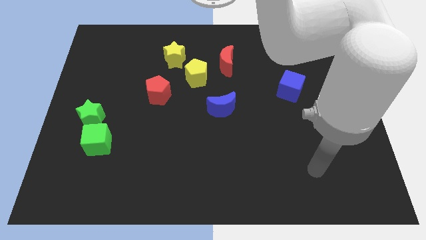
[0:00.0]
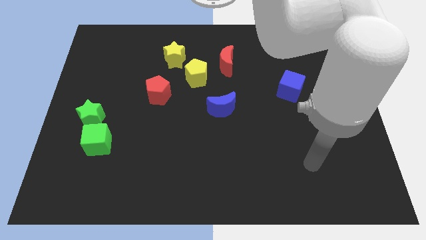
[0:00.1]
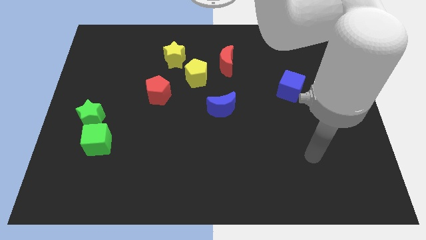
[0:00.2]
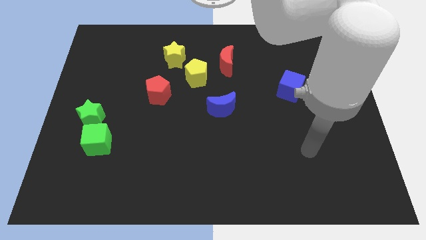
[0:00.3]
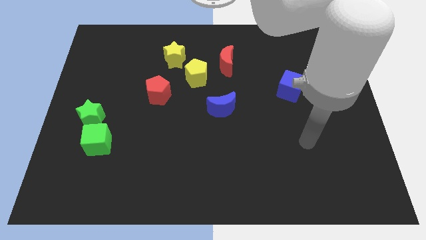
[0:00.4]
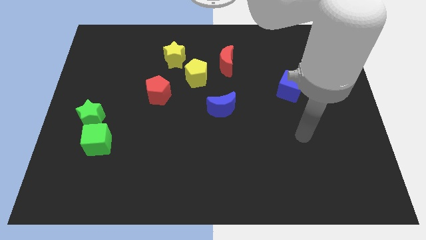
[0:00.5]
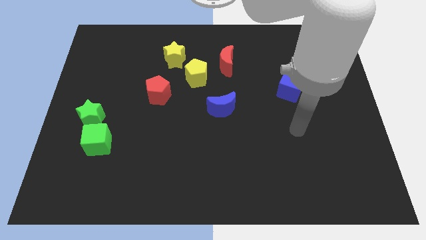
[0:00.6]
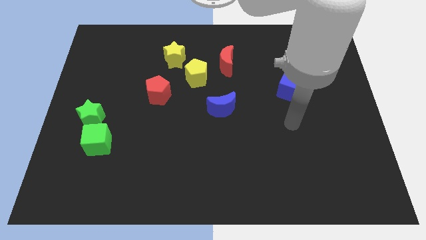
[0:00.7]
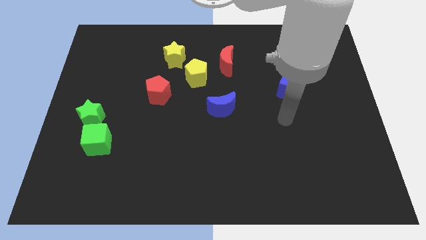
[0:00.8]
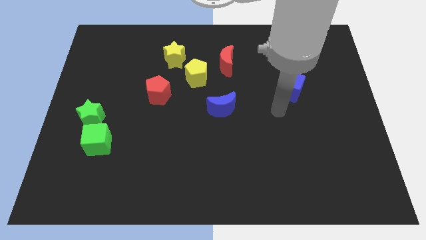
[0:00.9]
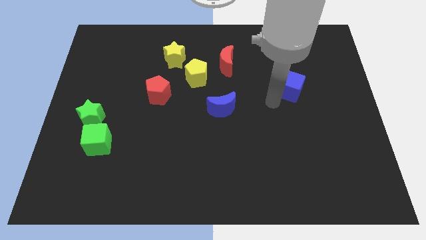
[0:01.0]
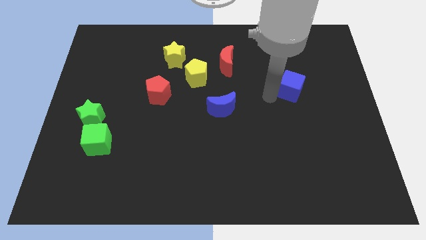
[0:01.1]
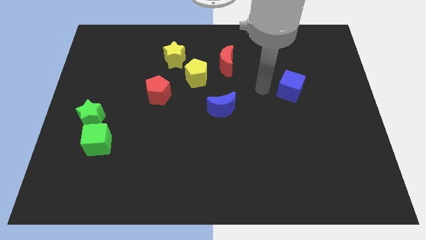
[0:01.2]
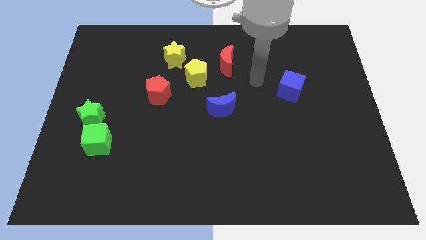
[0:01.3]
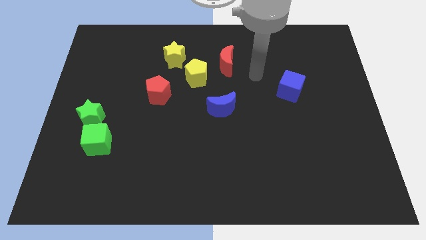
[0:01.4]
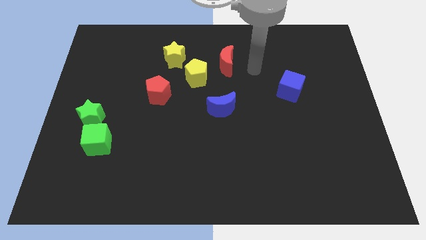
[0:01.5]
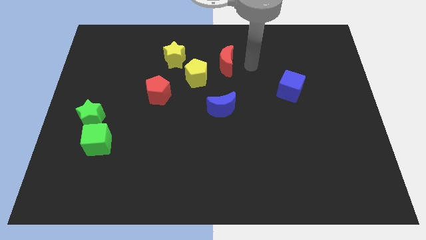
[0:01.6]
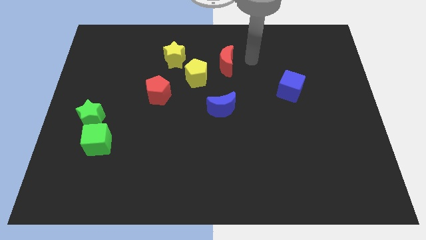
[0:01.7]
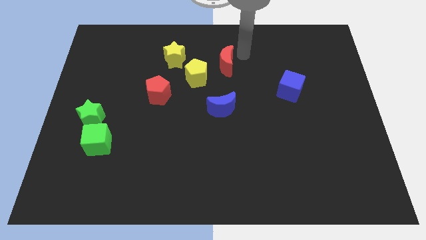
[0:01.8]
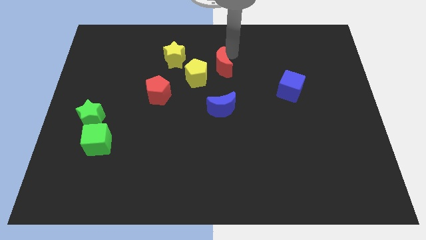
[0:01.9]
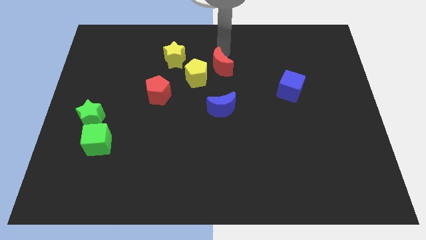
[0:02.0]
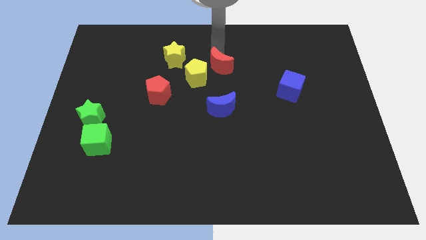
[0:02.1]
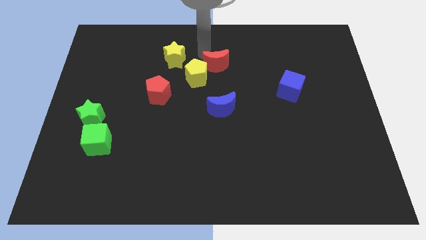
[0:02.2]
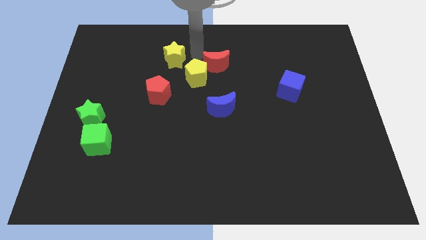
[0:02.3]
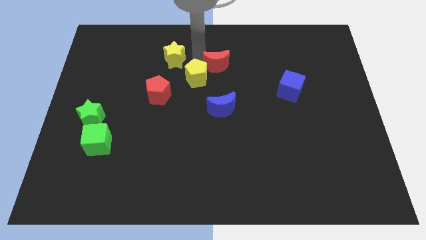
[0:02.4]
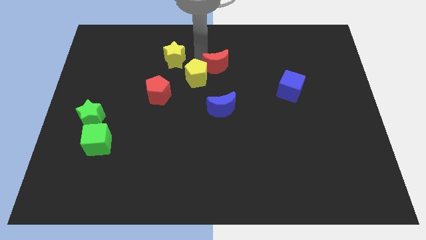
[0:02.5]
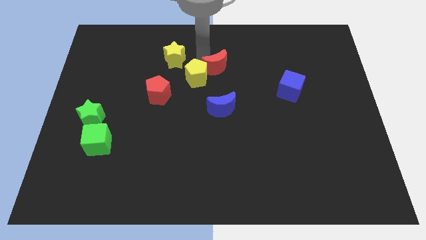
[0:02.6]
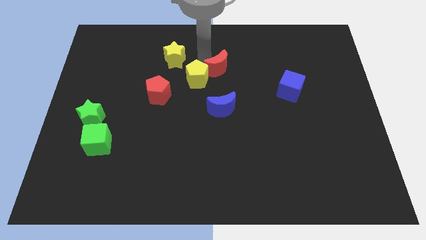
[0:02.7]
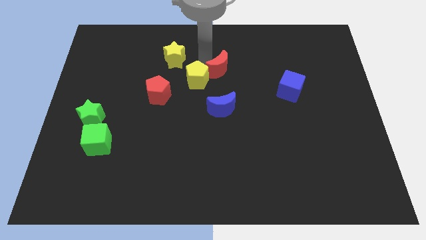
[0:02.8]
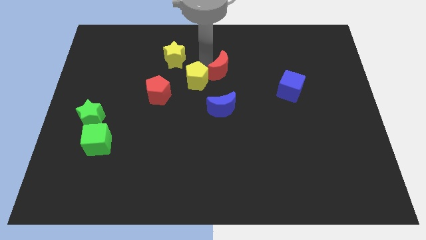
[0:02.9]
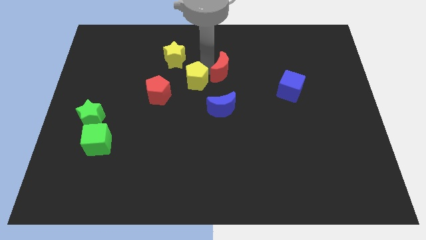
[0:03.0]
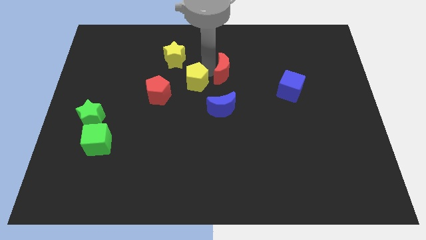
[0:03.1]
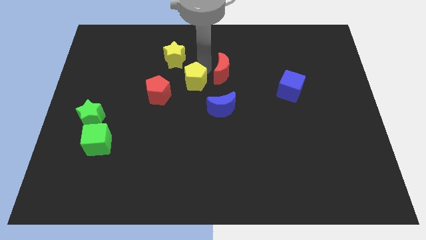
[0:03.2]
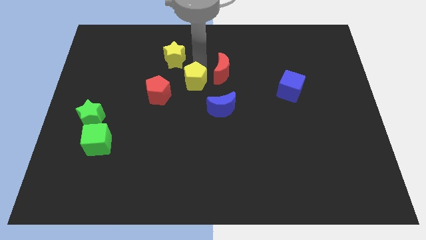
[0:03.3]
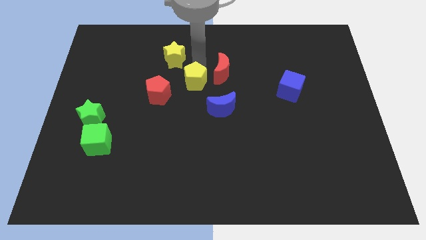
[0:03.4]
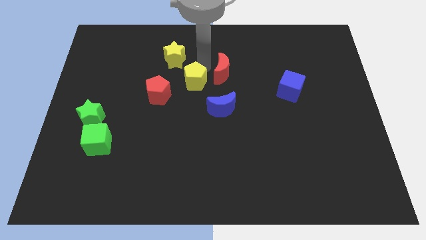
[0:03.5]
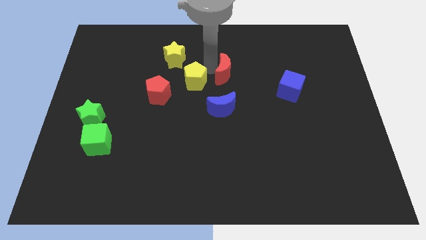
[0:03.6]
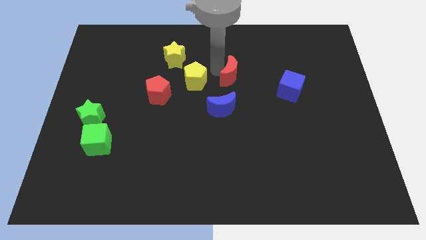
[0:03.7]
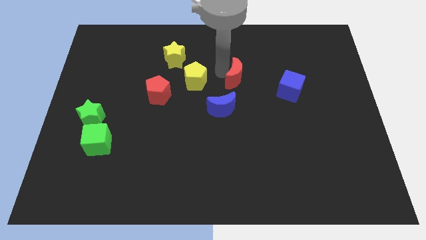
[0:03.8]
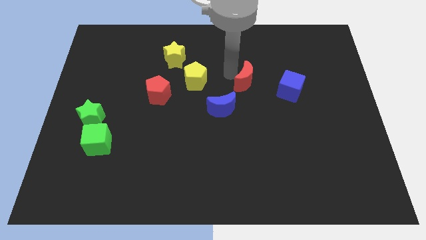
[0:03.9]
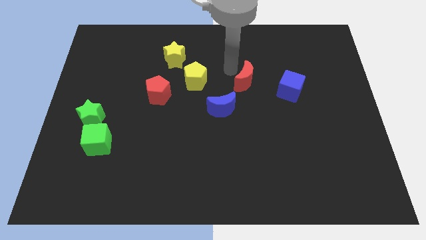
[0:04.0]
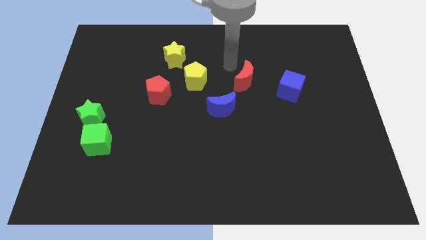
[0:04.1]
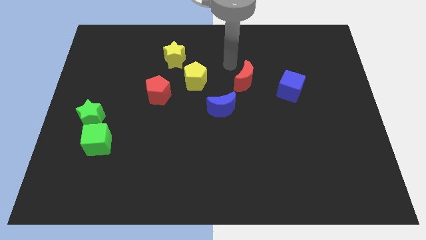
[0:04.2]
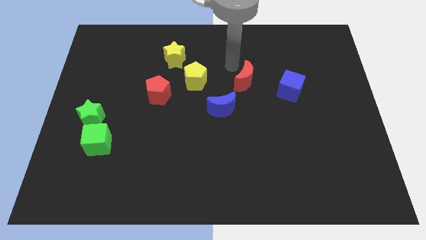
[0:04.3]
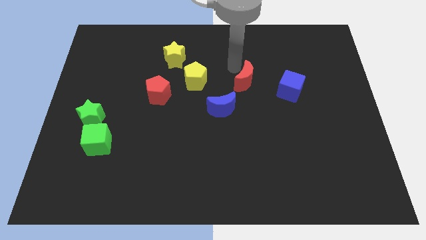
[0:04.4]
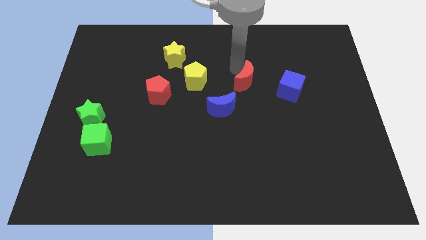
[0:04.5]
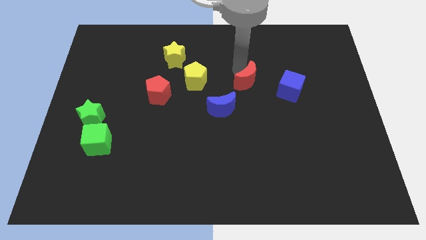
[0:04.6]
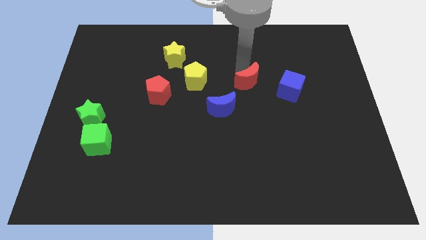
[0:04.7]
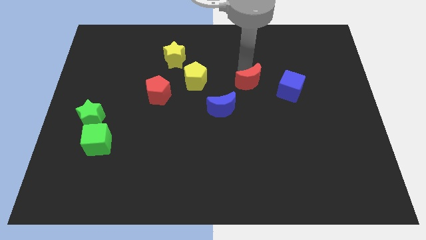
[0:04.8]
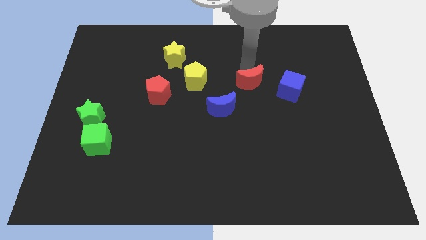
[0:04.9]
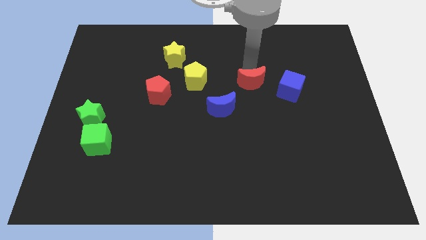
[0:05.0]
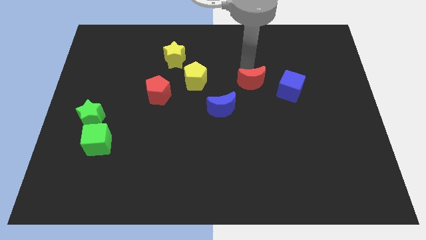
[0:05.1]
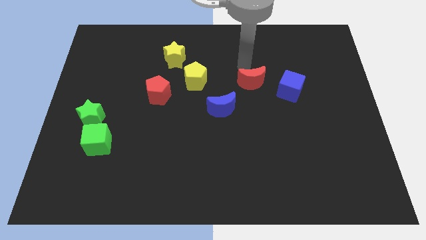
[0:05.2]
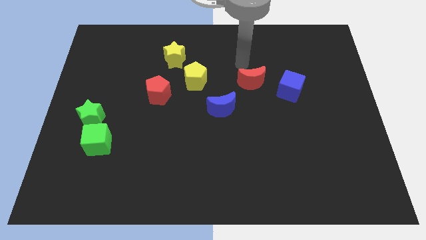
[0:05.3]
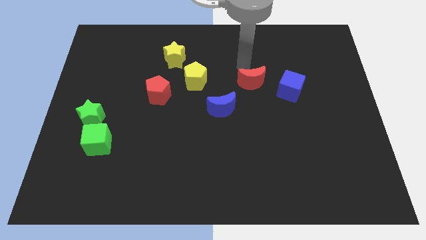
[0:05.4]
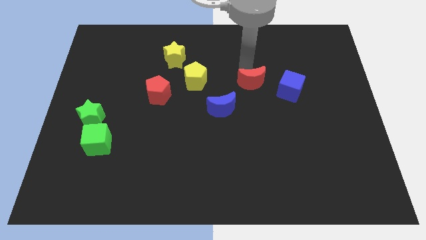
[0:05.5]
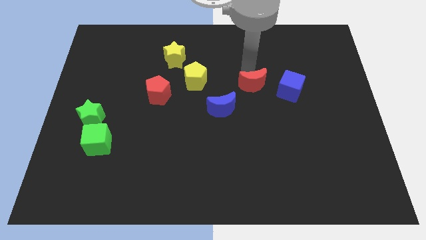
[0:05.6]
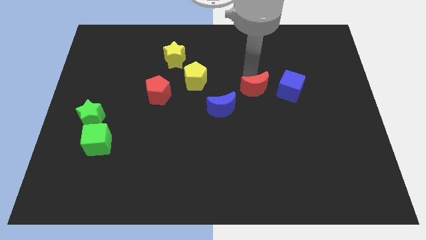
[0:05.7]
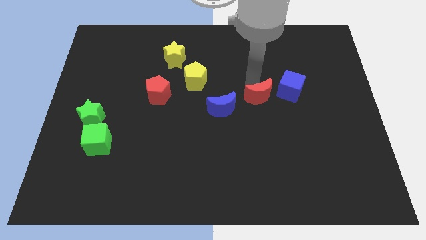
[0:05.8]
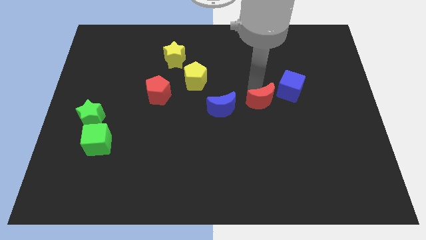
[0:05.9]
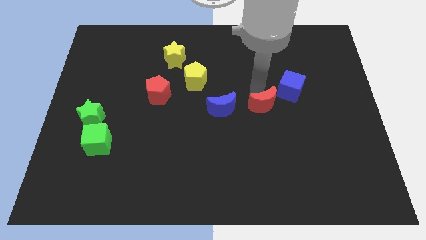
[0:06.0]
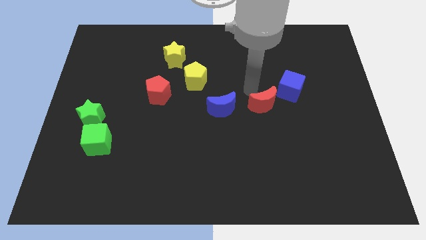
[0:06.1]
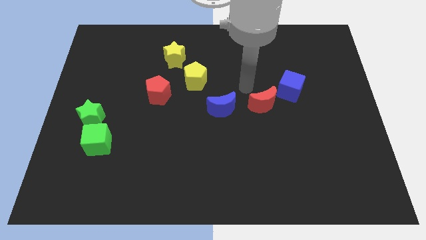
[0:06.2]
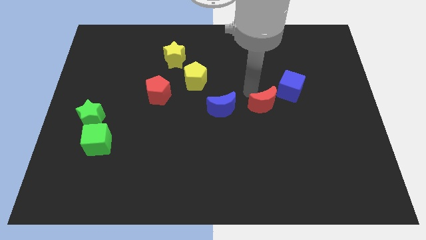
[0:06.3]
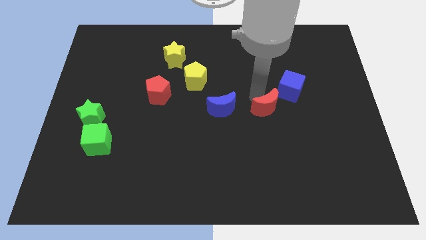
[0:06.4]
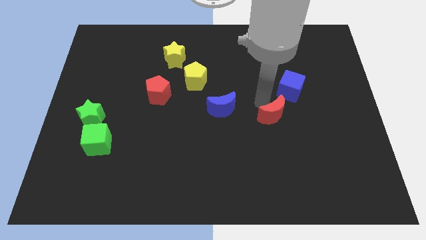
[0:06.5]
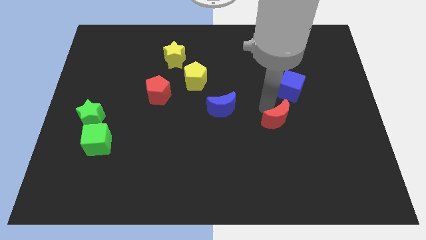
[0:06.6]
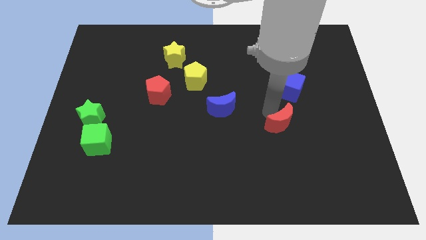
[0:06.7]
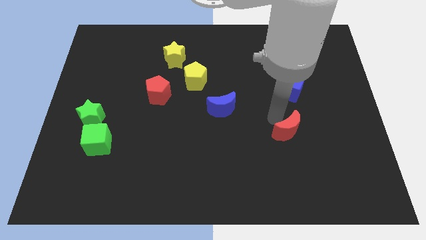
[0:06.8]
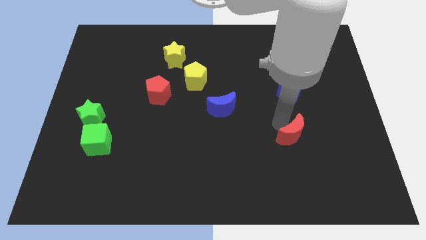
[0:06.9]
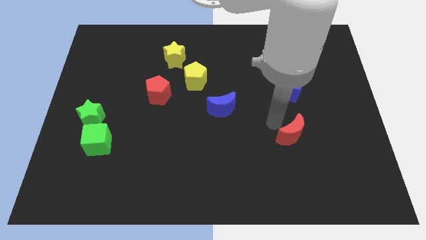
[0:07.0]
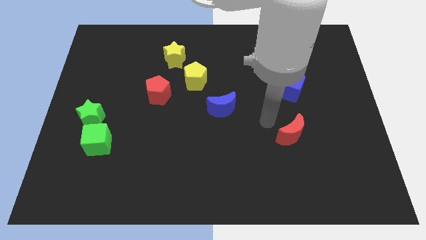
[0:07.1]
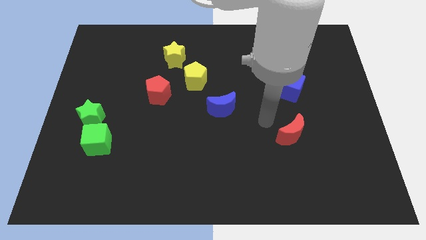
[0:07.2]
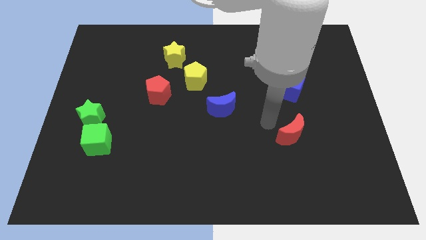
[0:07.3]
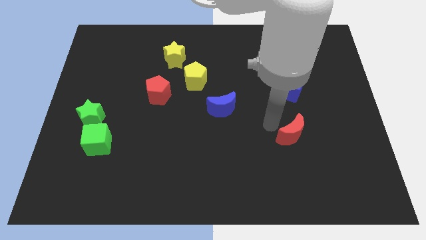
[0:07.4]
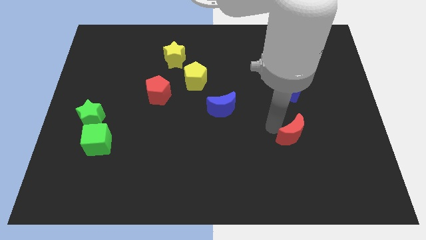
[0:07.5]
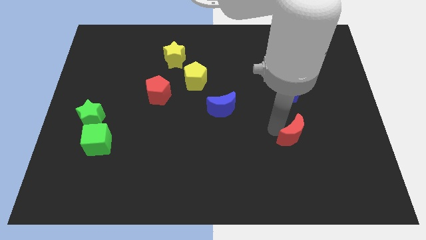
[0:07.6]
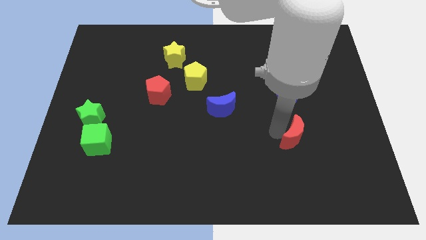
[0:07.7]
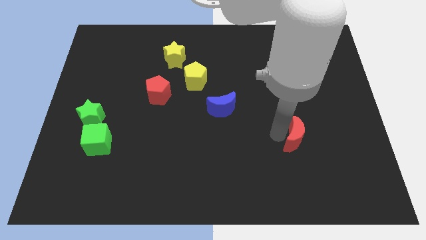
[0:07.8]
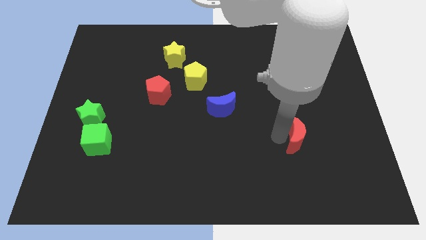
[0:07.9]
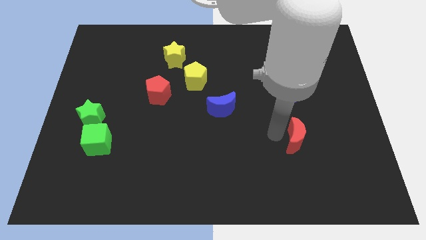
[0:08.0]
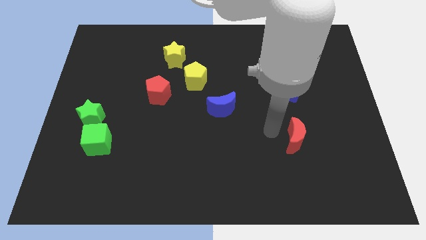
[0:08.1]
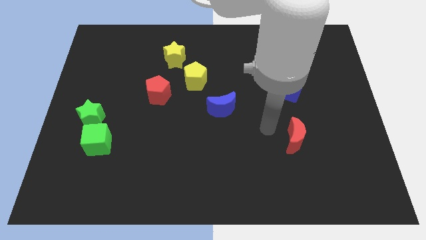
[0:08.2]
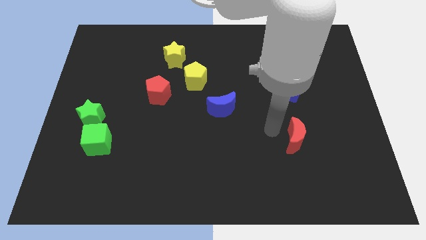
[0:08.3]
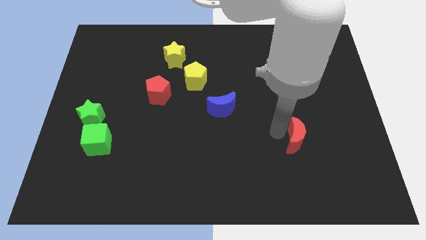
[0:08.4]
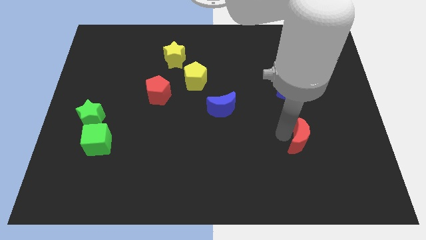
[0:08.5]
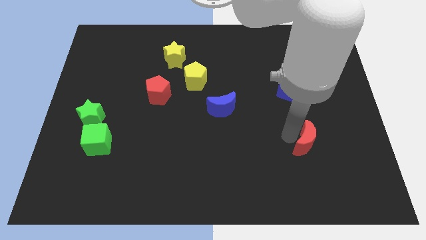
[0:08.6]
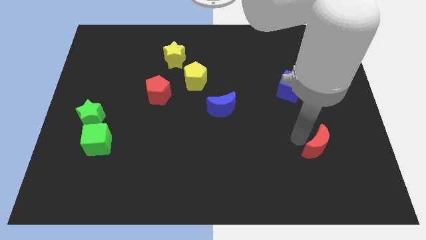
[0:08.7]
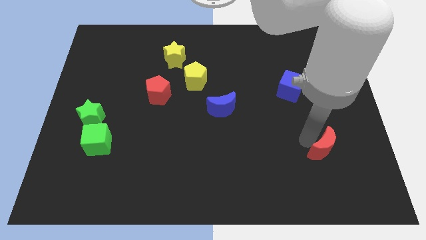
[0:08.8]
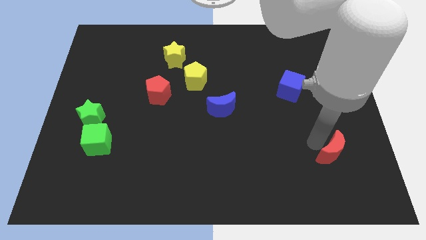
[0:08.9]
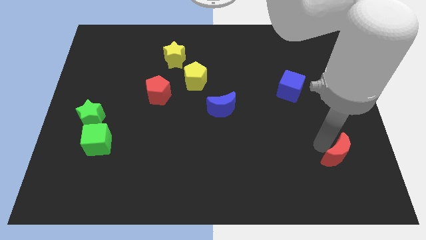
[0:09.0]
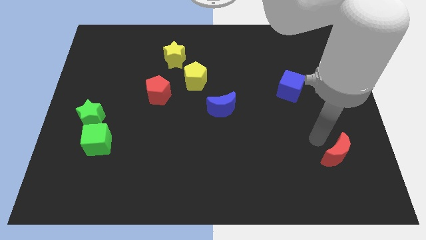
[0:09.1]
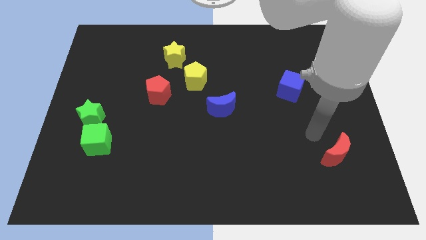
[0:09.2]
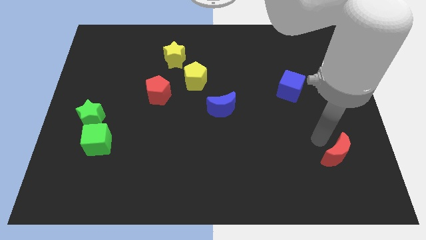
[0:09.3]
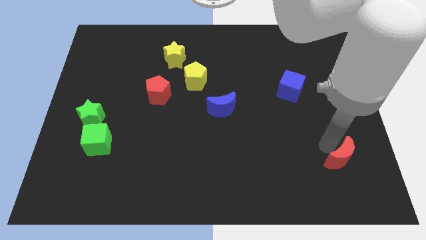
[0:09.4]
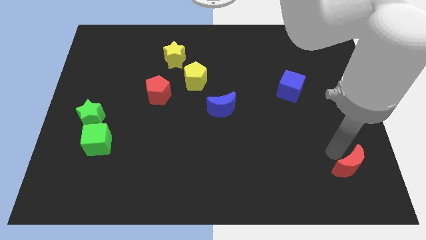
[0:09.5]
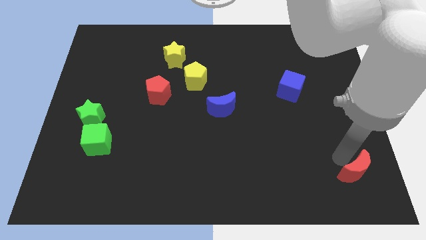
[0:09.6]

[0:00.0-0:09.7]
push the red moon to the bottom right corner
